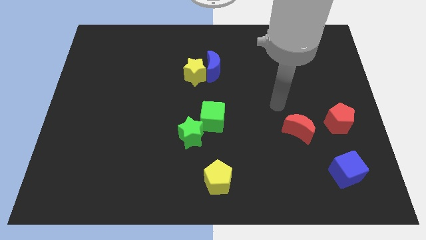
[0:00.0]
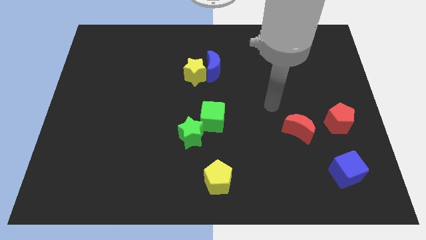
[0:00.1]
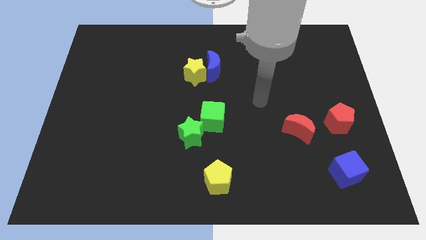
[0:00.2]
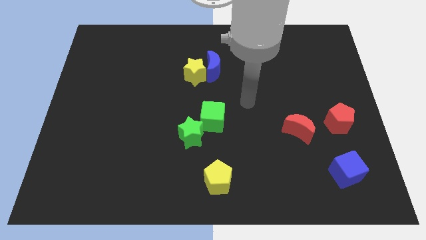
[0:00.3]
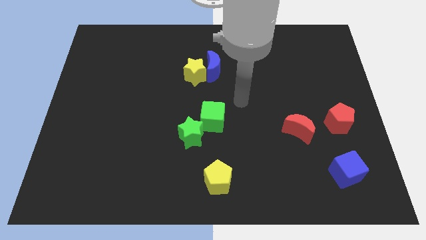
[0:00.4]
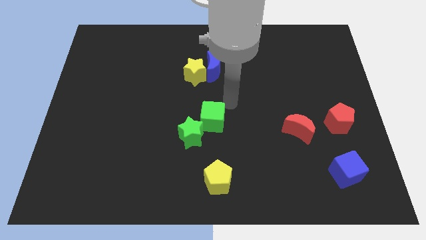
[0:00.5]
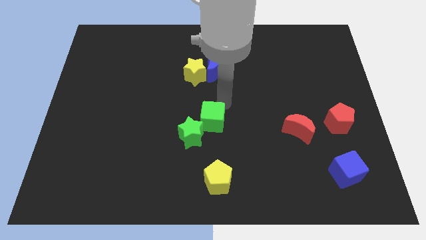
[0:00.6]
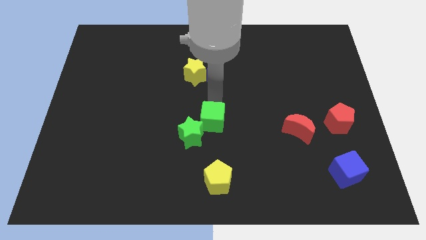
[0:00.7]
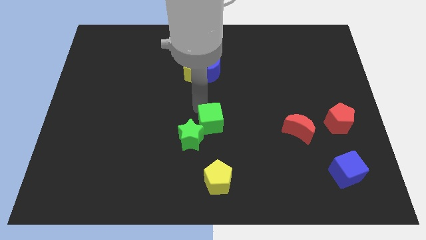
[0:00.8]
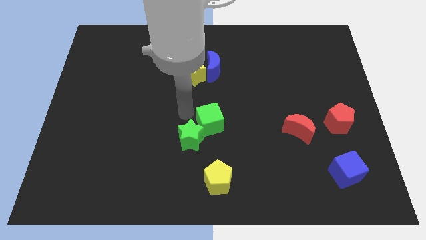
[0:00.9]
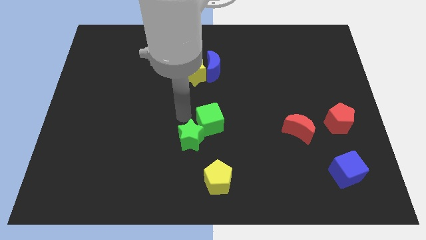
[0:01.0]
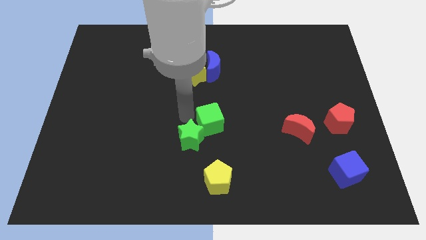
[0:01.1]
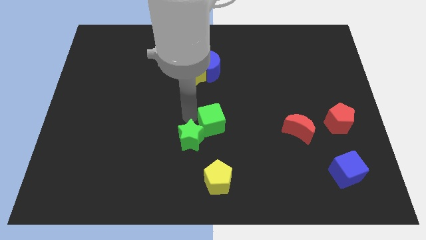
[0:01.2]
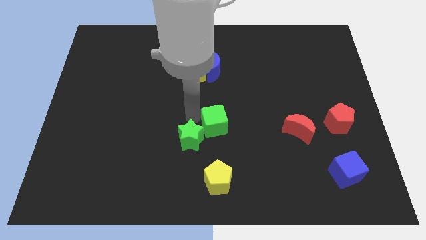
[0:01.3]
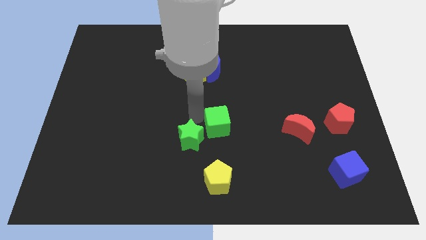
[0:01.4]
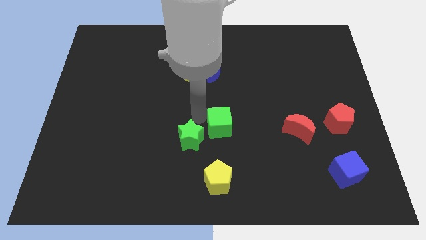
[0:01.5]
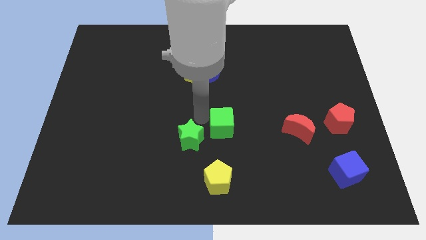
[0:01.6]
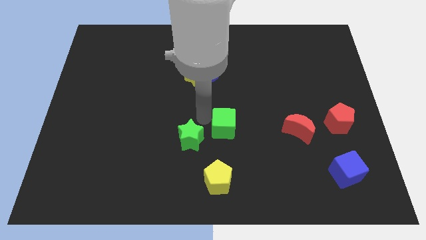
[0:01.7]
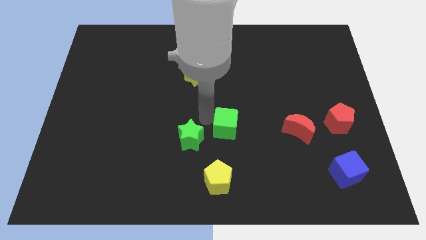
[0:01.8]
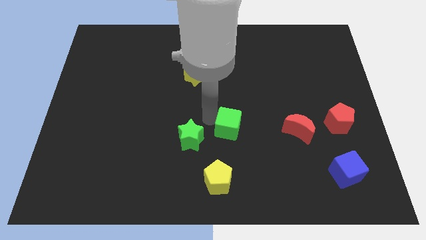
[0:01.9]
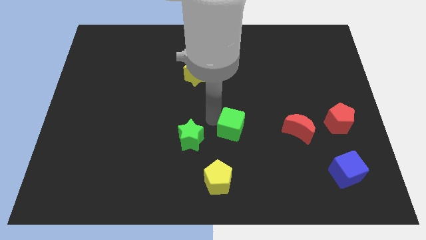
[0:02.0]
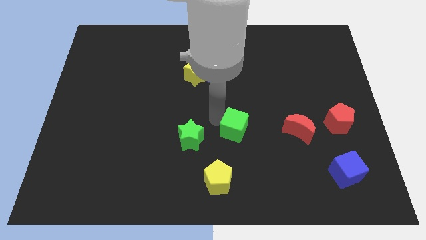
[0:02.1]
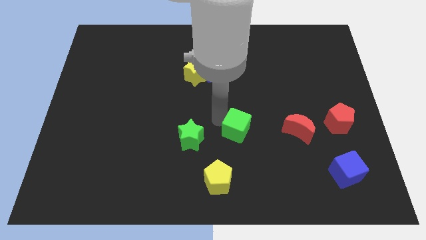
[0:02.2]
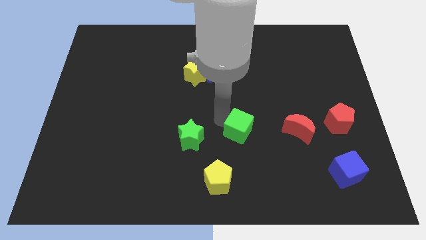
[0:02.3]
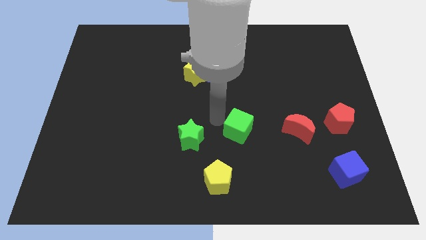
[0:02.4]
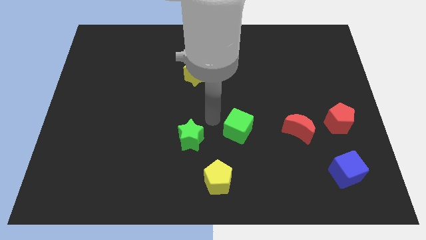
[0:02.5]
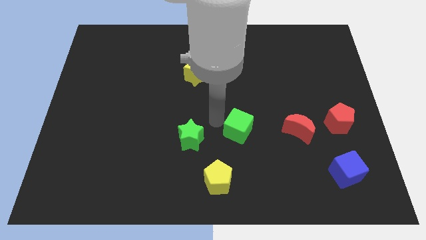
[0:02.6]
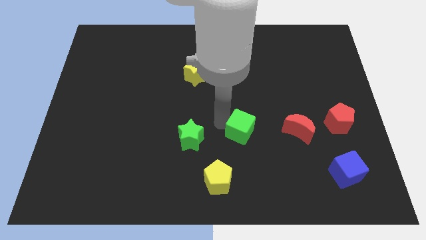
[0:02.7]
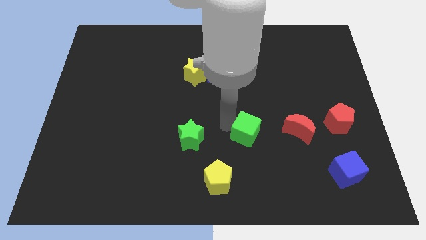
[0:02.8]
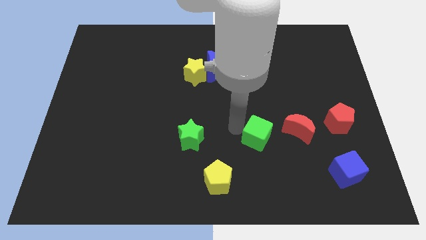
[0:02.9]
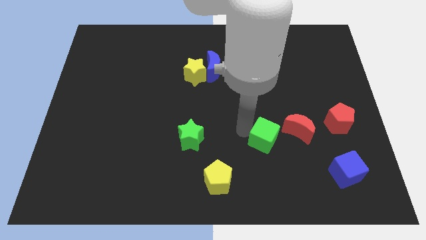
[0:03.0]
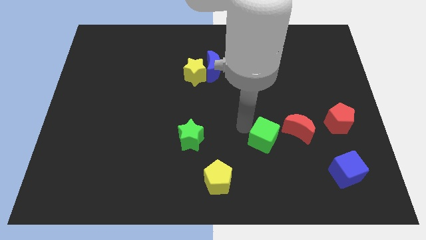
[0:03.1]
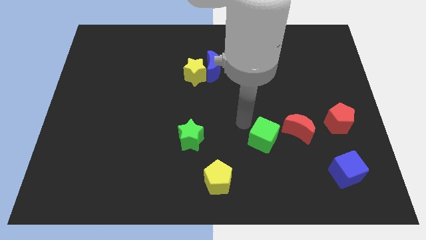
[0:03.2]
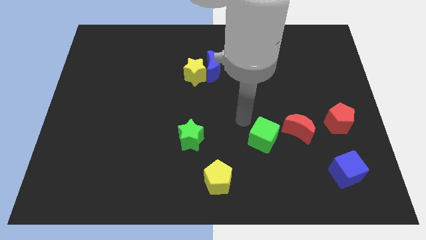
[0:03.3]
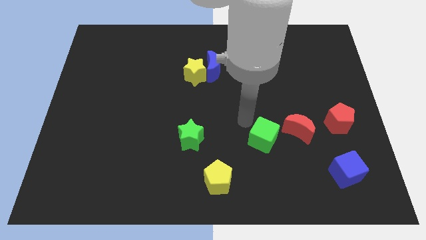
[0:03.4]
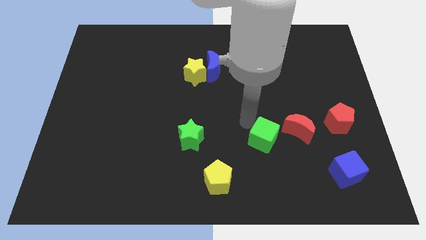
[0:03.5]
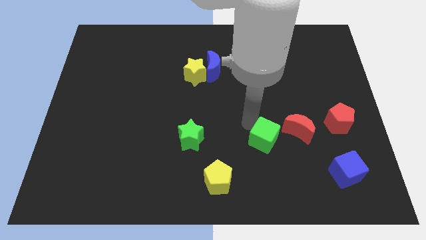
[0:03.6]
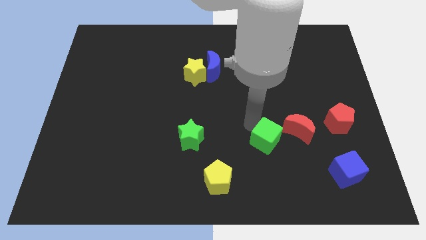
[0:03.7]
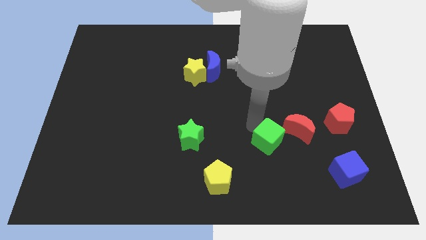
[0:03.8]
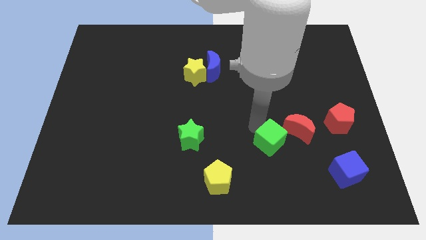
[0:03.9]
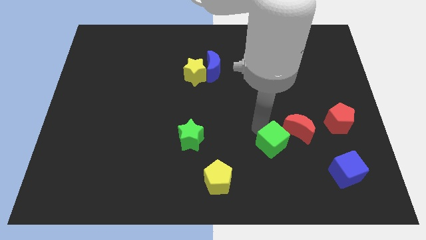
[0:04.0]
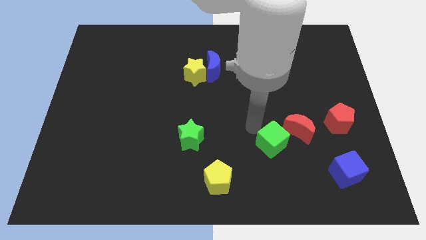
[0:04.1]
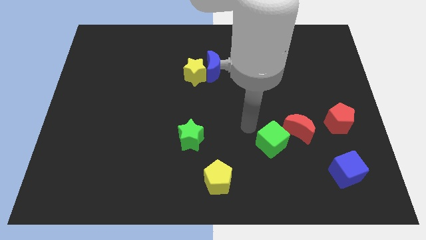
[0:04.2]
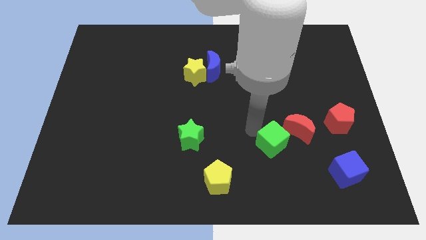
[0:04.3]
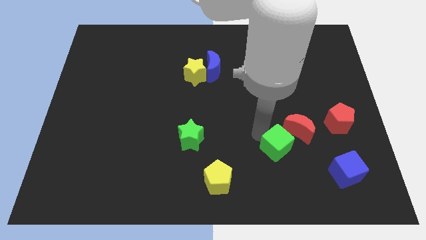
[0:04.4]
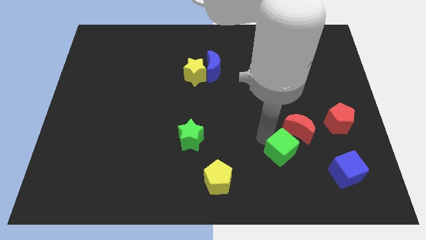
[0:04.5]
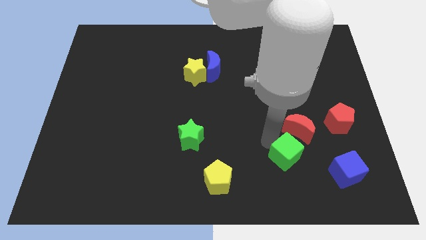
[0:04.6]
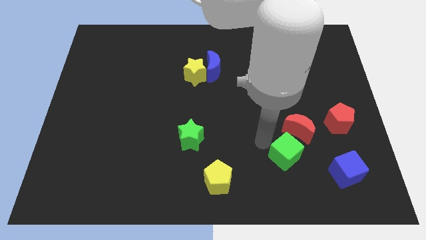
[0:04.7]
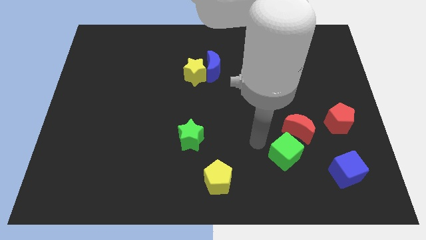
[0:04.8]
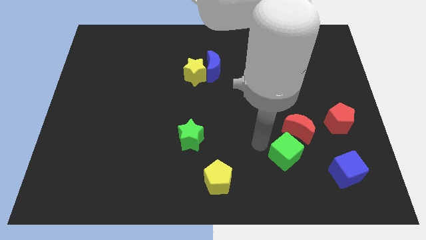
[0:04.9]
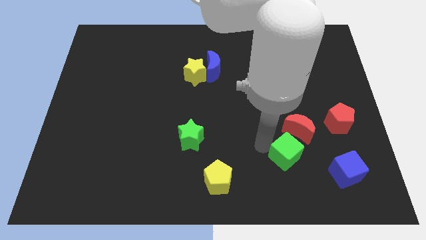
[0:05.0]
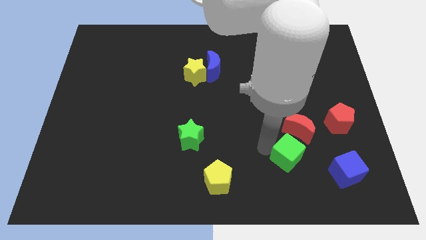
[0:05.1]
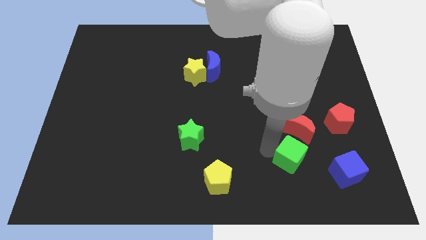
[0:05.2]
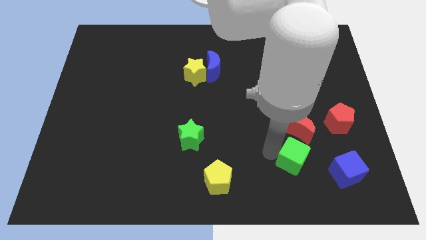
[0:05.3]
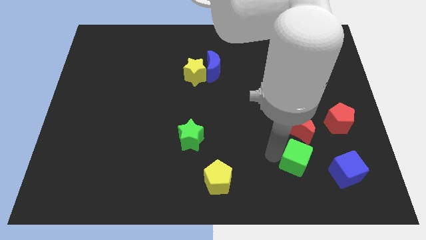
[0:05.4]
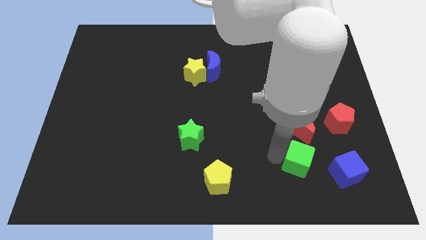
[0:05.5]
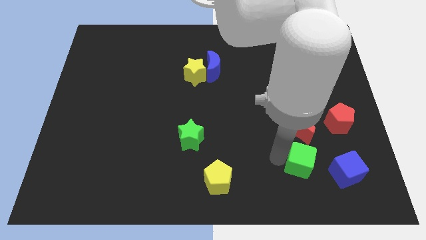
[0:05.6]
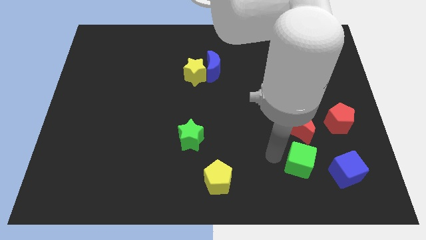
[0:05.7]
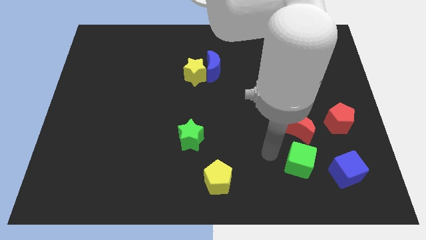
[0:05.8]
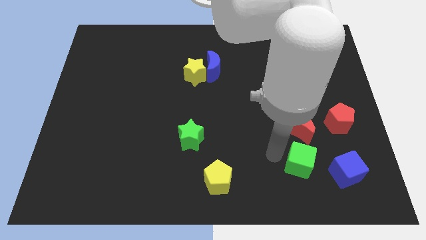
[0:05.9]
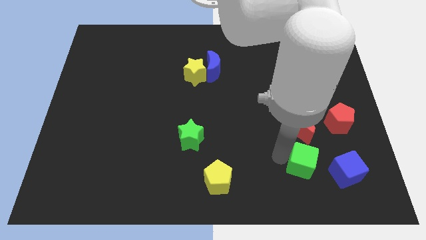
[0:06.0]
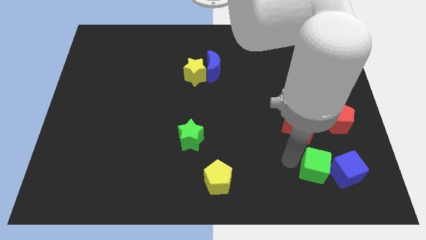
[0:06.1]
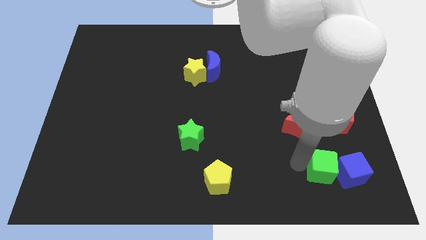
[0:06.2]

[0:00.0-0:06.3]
put the green cube next to the blue cube
